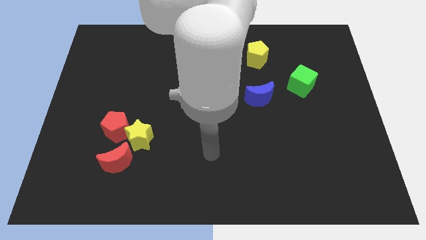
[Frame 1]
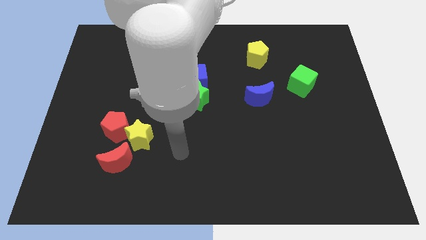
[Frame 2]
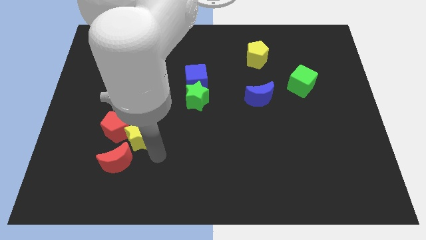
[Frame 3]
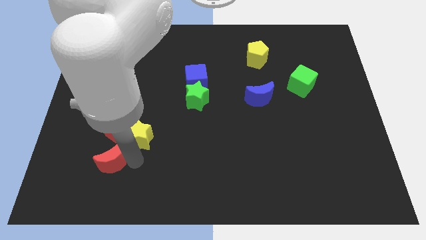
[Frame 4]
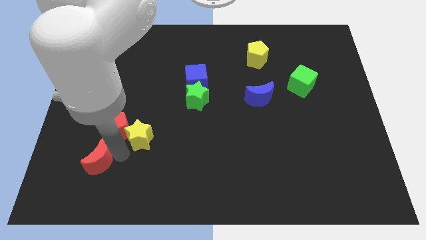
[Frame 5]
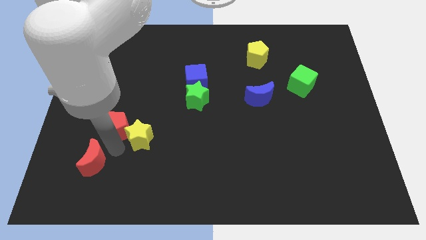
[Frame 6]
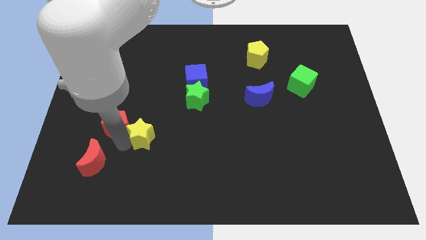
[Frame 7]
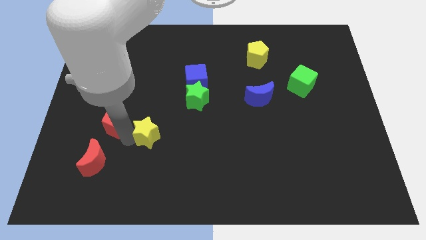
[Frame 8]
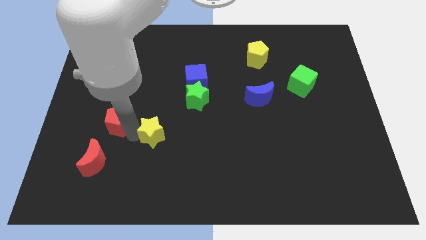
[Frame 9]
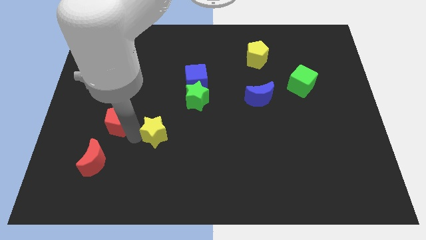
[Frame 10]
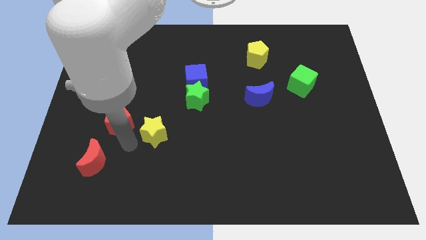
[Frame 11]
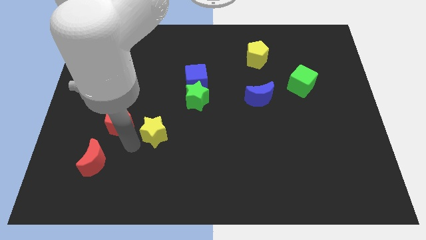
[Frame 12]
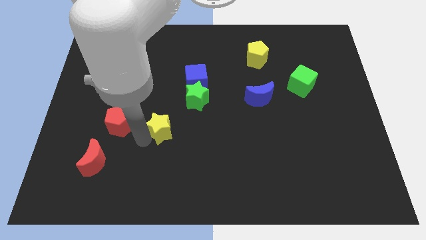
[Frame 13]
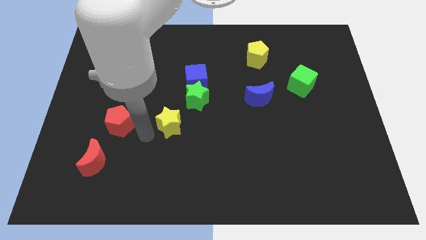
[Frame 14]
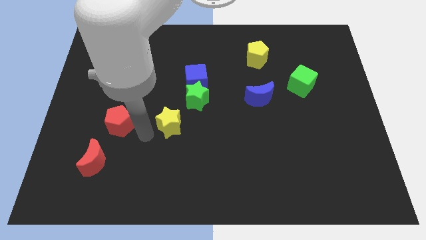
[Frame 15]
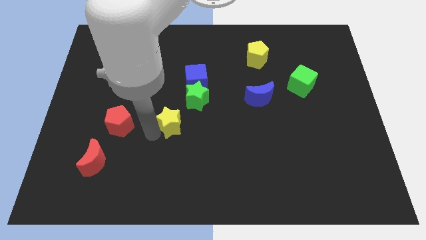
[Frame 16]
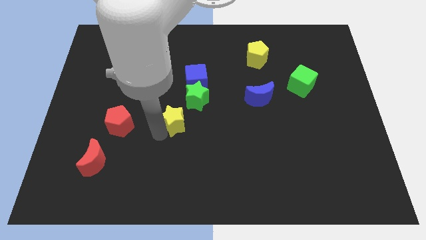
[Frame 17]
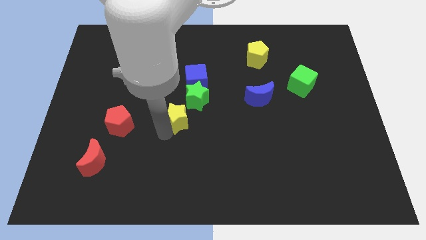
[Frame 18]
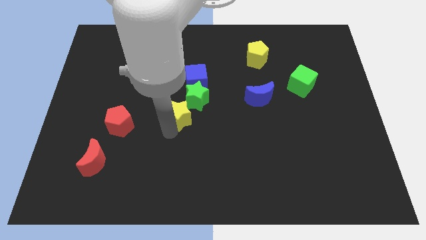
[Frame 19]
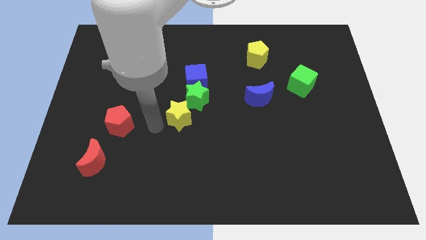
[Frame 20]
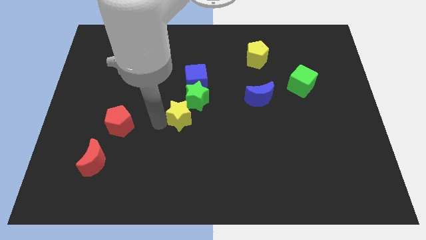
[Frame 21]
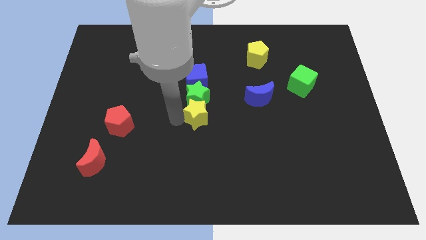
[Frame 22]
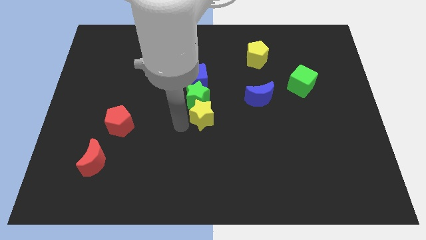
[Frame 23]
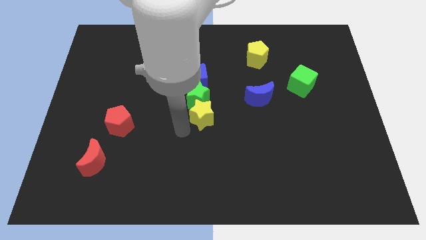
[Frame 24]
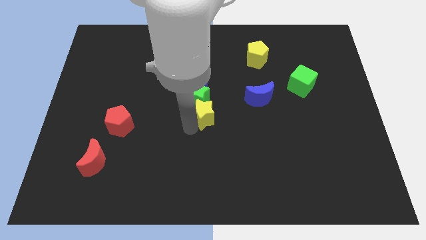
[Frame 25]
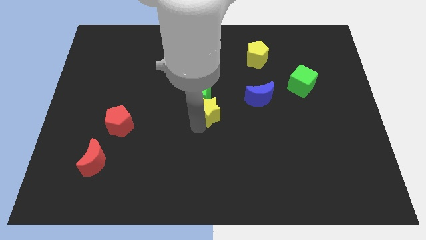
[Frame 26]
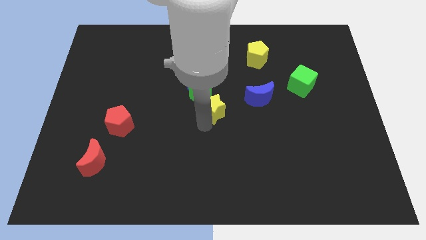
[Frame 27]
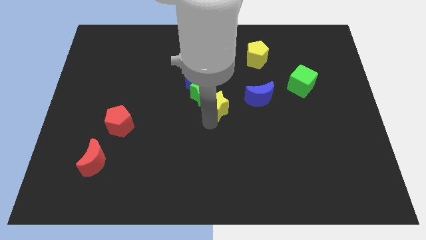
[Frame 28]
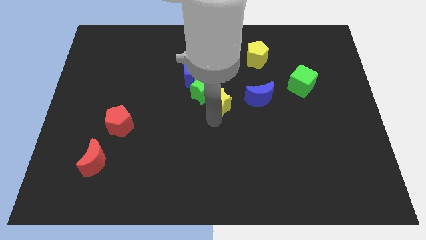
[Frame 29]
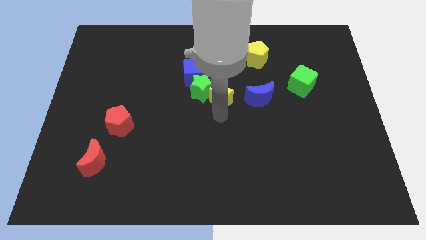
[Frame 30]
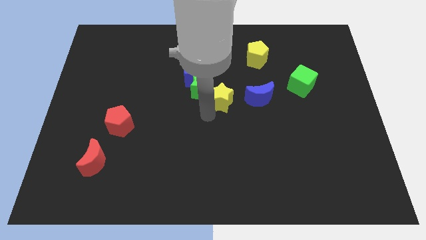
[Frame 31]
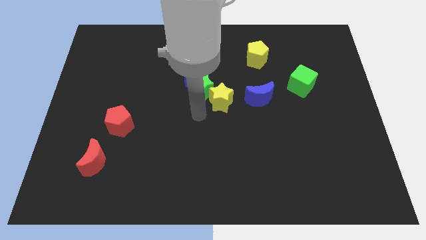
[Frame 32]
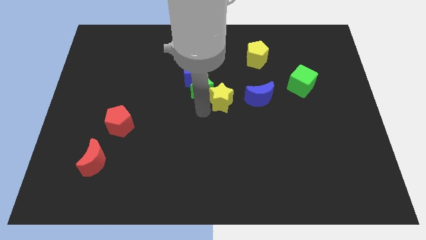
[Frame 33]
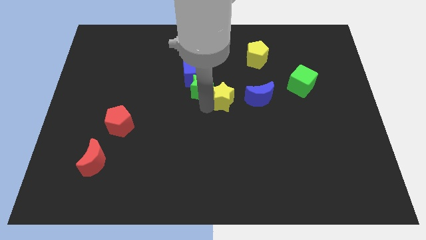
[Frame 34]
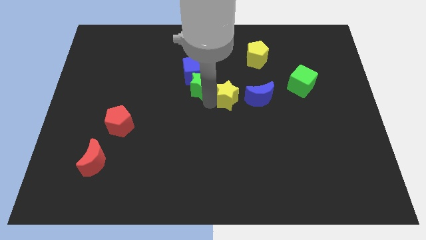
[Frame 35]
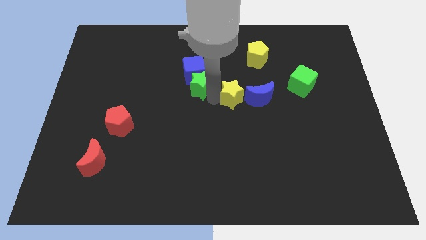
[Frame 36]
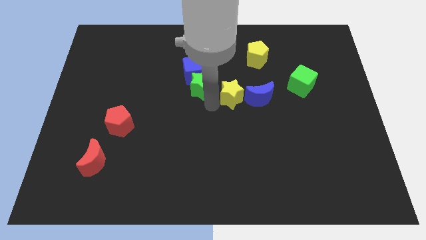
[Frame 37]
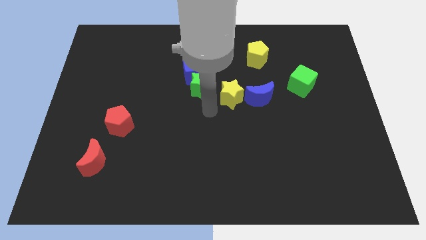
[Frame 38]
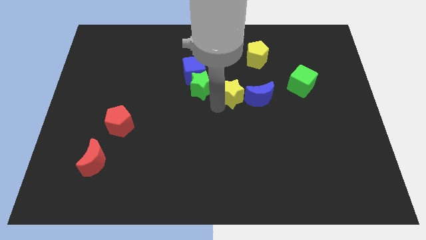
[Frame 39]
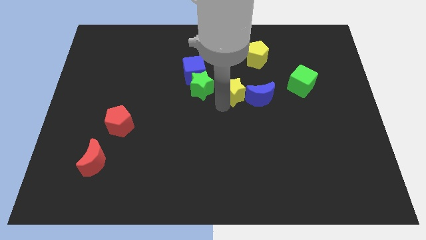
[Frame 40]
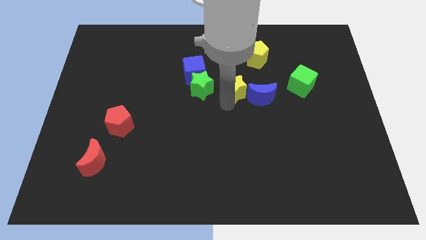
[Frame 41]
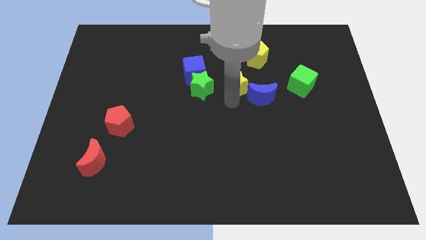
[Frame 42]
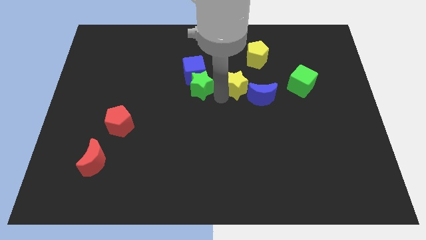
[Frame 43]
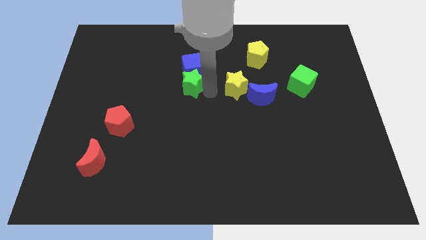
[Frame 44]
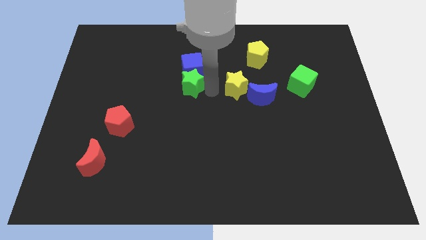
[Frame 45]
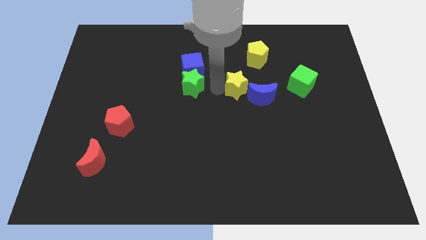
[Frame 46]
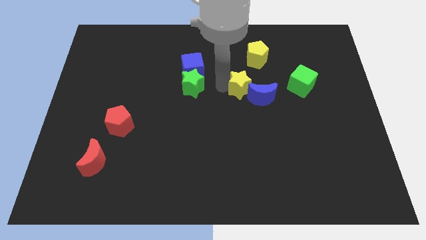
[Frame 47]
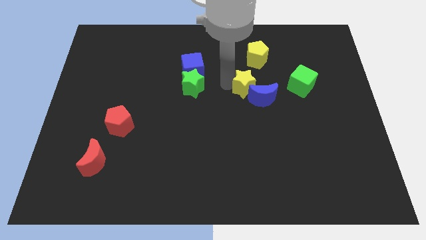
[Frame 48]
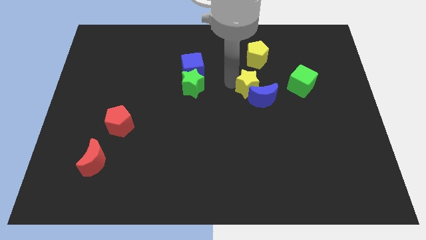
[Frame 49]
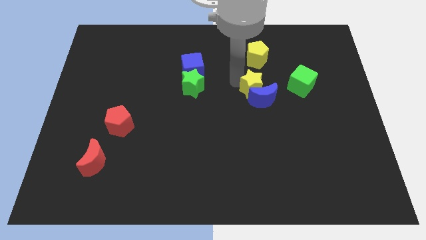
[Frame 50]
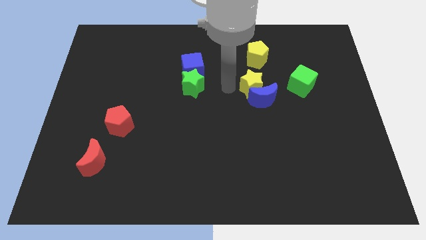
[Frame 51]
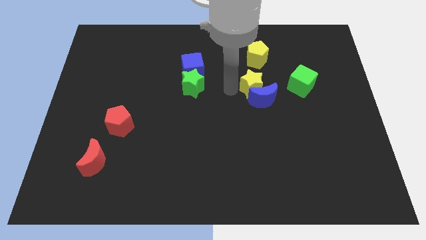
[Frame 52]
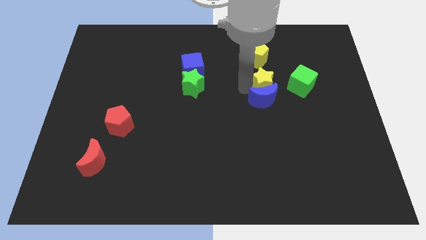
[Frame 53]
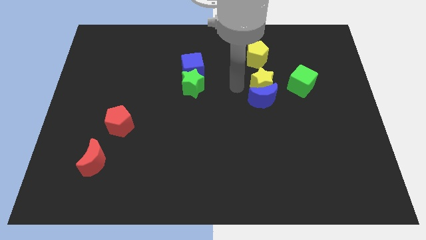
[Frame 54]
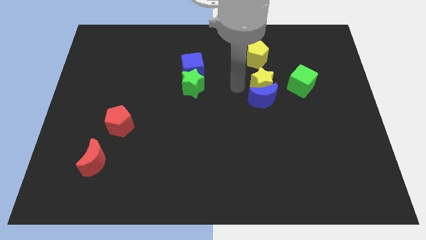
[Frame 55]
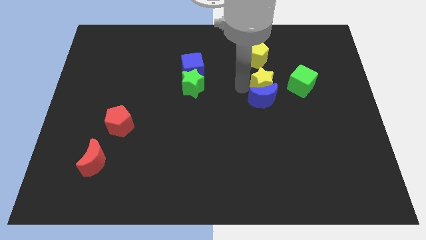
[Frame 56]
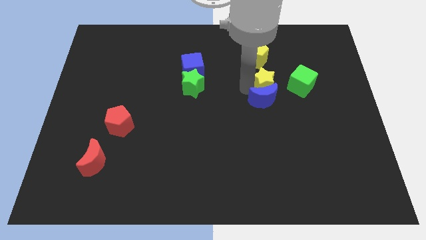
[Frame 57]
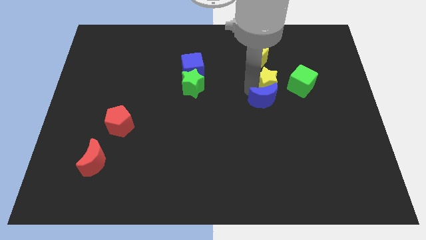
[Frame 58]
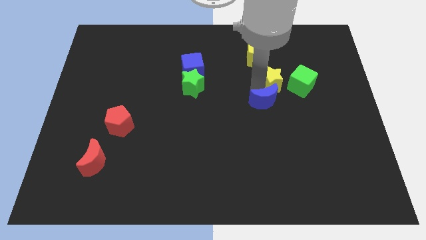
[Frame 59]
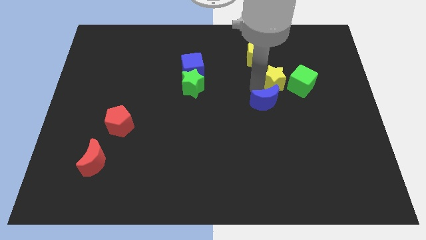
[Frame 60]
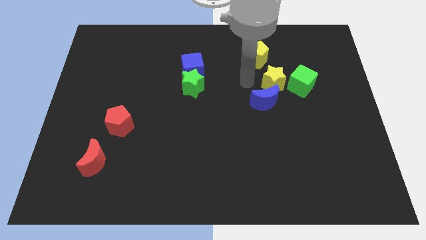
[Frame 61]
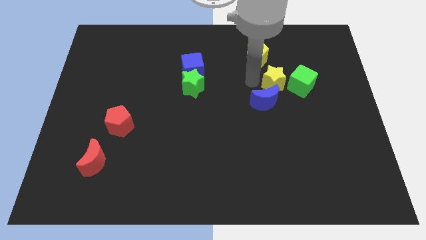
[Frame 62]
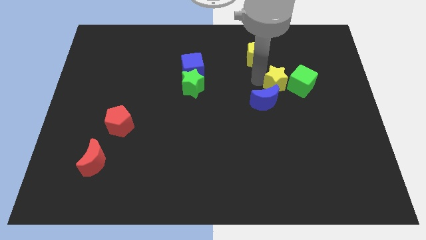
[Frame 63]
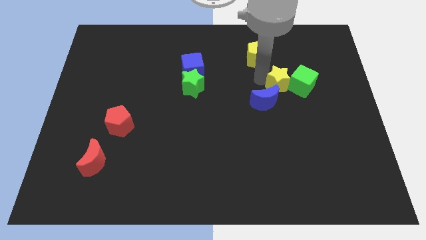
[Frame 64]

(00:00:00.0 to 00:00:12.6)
slide the yellow star towards the green cube

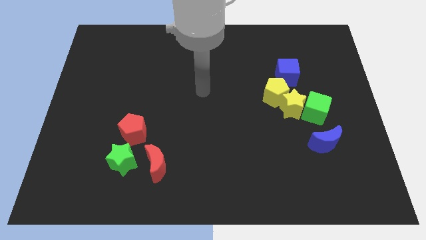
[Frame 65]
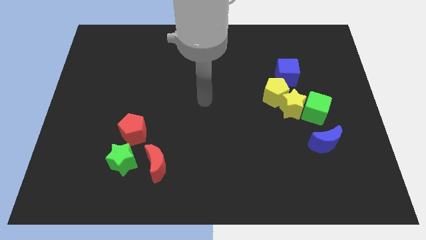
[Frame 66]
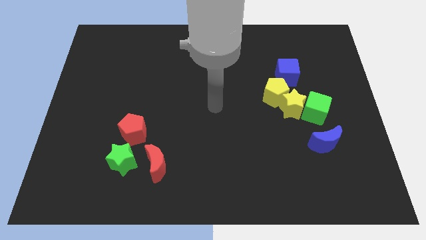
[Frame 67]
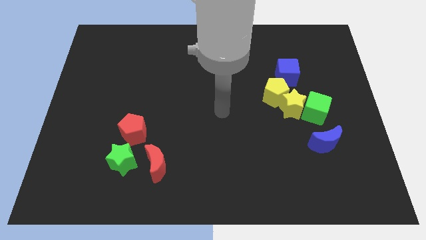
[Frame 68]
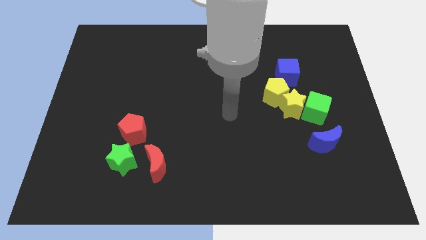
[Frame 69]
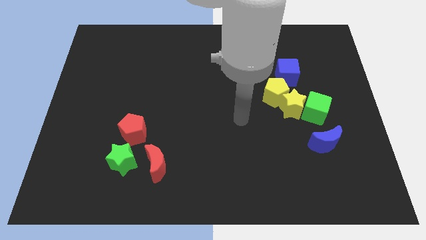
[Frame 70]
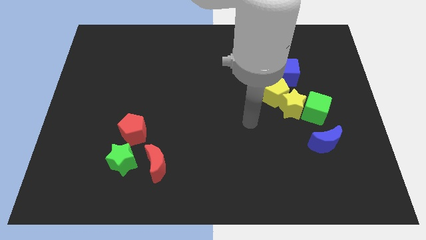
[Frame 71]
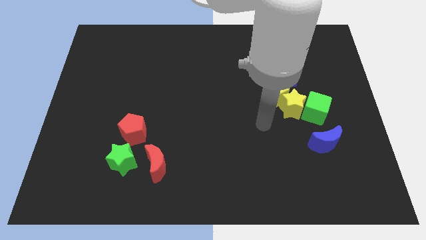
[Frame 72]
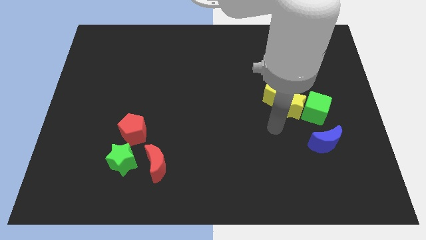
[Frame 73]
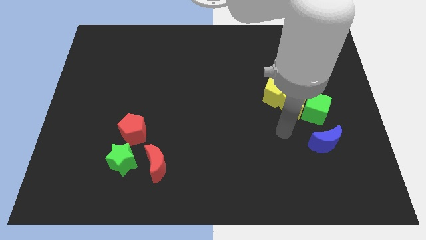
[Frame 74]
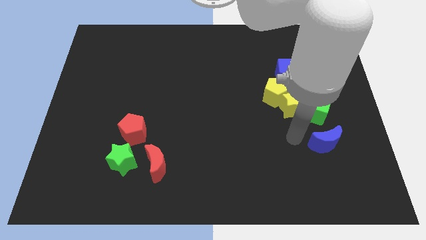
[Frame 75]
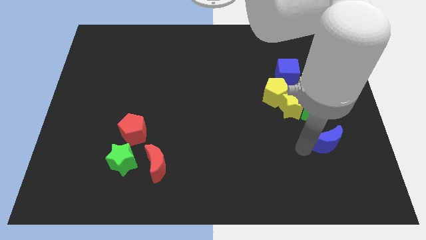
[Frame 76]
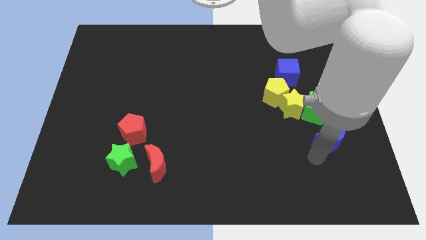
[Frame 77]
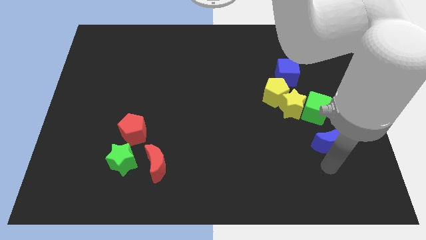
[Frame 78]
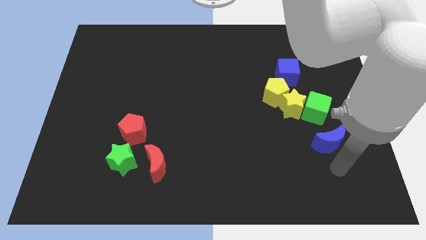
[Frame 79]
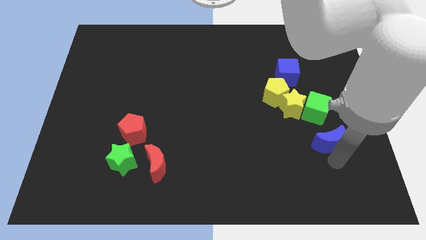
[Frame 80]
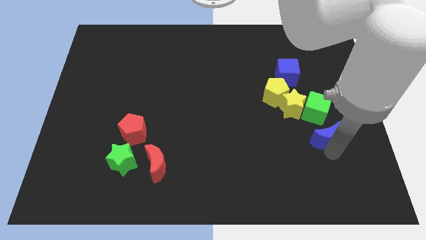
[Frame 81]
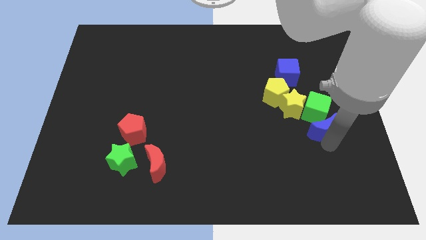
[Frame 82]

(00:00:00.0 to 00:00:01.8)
slide the blue moon next to the green cube
